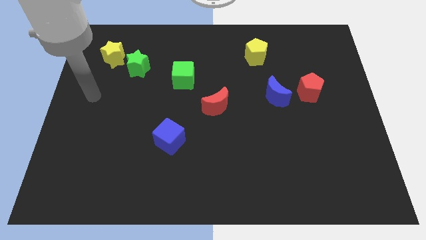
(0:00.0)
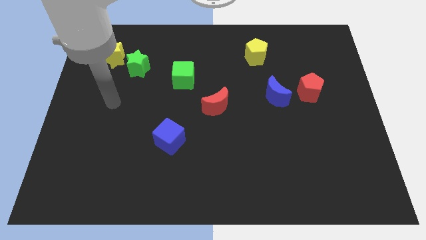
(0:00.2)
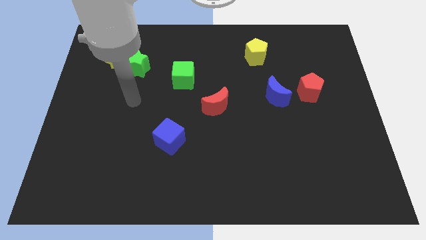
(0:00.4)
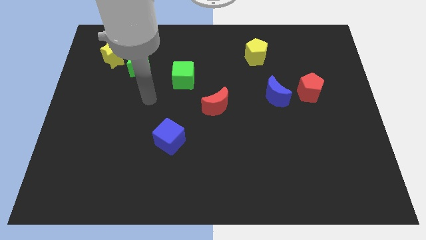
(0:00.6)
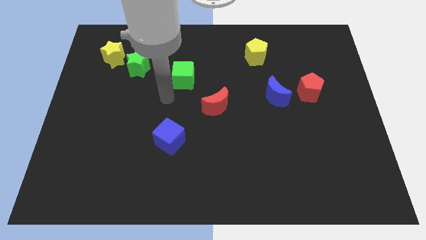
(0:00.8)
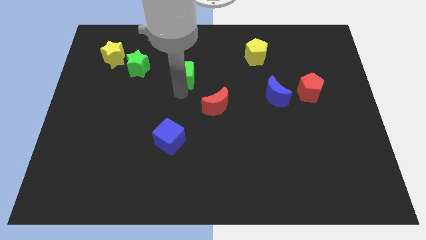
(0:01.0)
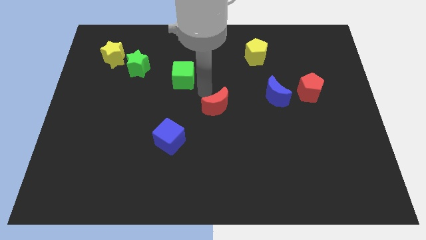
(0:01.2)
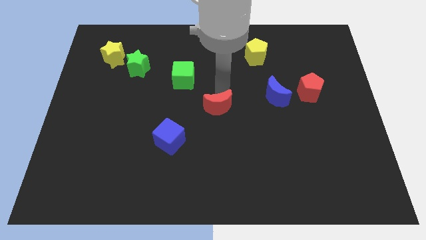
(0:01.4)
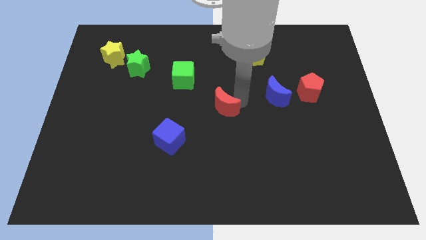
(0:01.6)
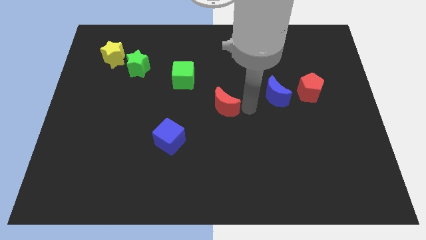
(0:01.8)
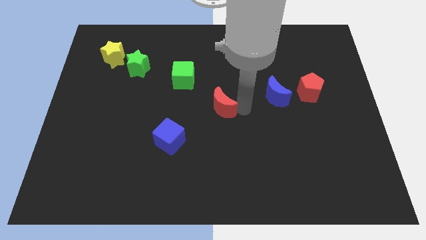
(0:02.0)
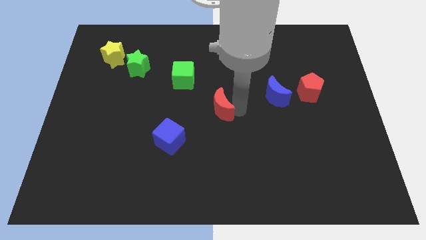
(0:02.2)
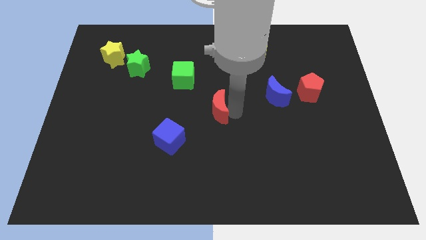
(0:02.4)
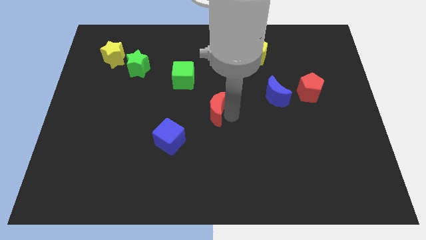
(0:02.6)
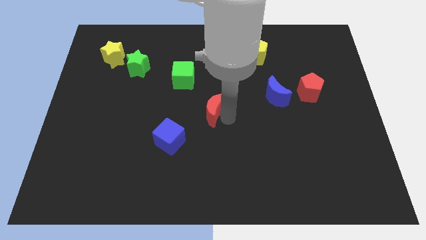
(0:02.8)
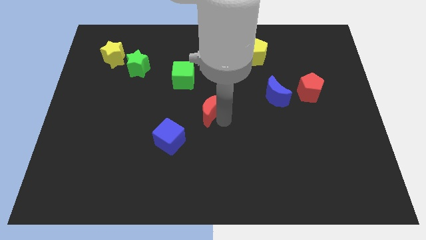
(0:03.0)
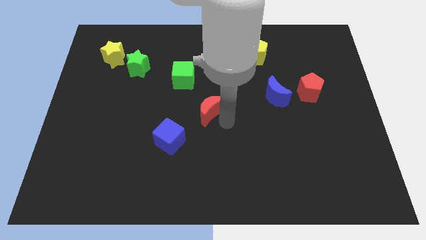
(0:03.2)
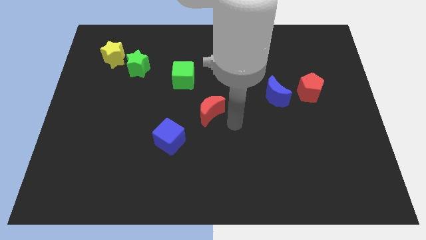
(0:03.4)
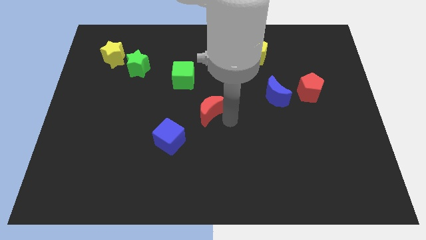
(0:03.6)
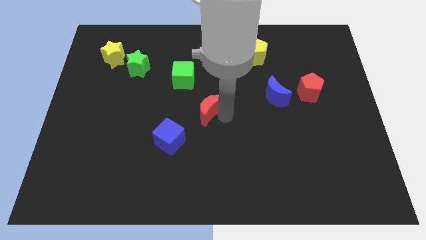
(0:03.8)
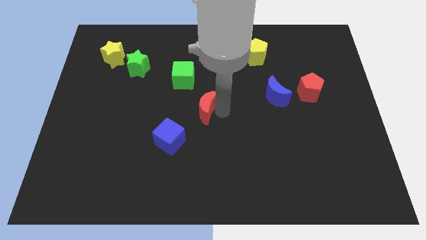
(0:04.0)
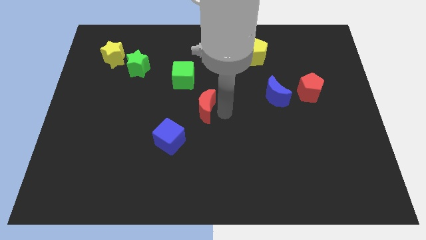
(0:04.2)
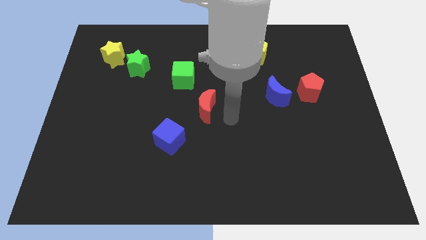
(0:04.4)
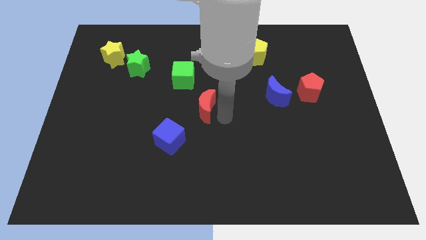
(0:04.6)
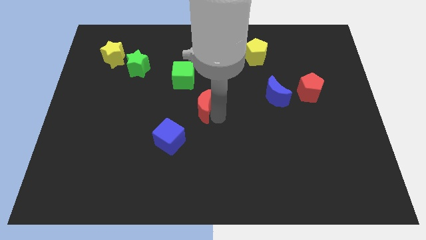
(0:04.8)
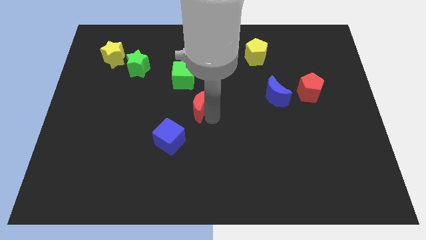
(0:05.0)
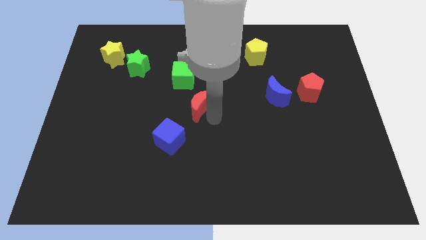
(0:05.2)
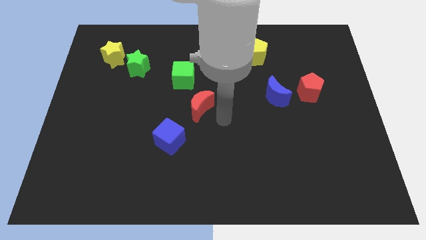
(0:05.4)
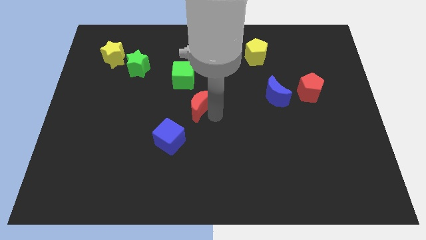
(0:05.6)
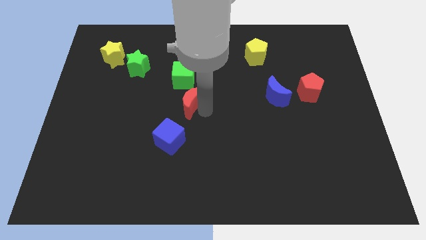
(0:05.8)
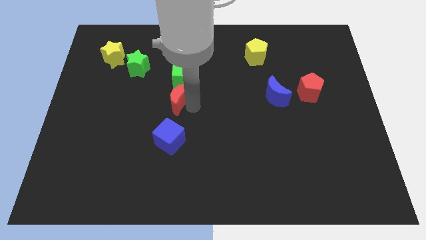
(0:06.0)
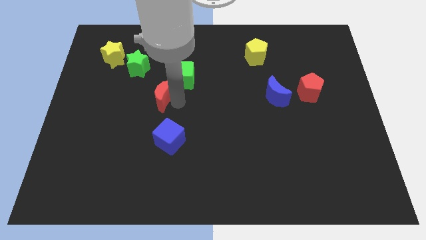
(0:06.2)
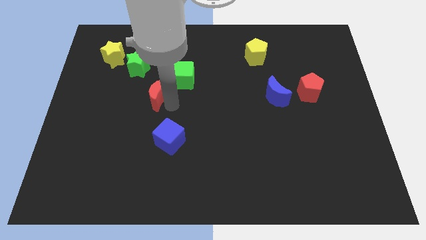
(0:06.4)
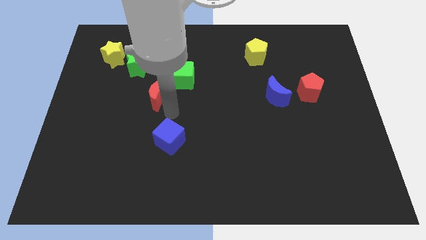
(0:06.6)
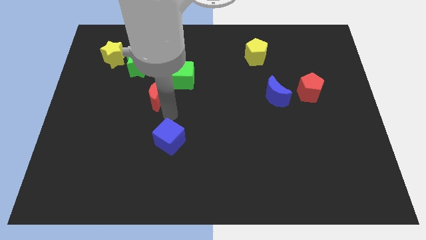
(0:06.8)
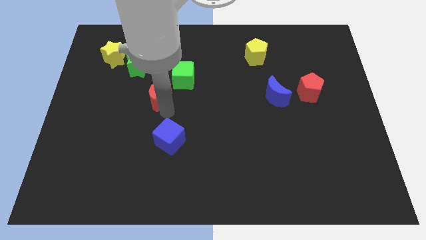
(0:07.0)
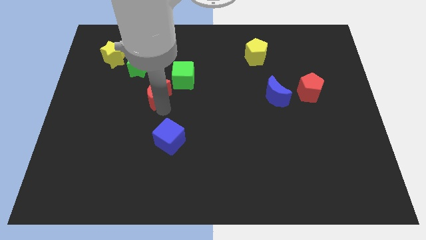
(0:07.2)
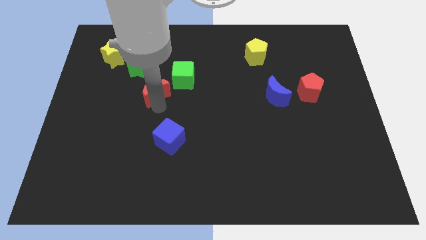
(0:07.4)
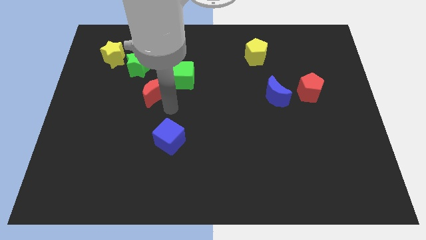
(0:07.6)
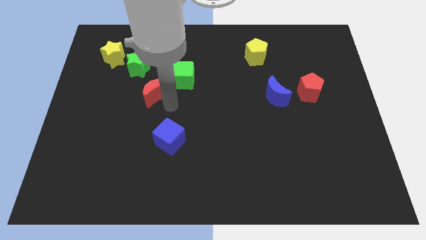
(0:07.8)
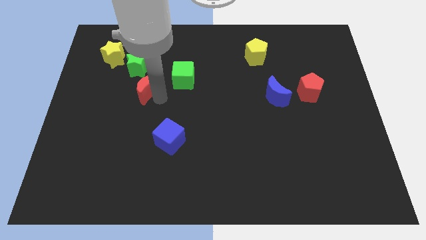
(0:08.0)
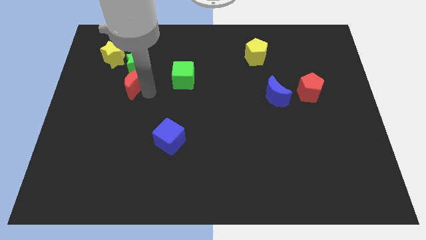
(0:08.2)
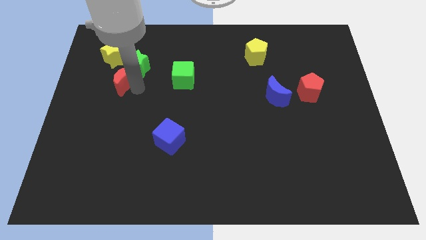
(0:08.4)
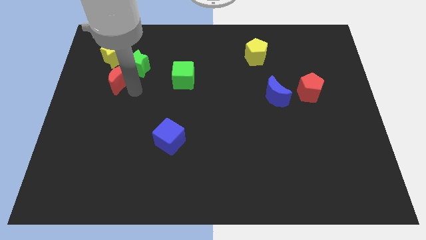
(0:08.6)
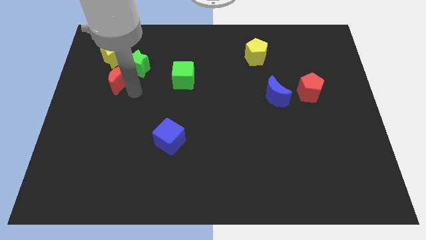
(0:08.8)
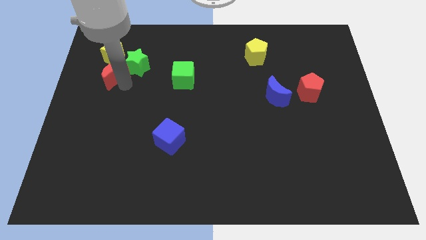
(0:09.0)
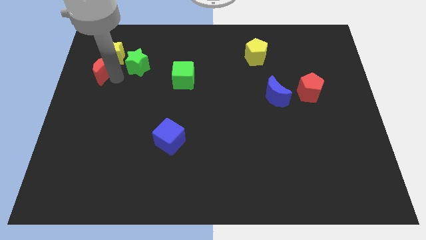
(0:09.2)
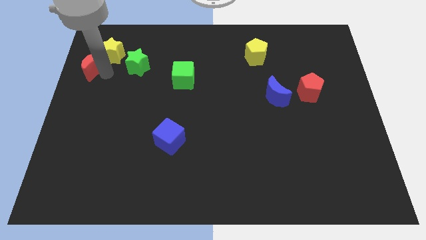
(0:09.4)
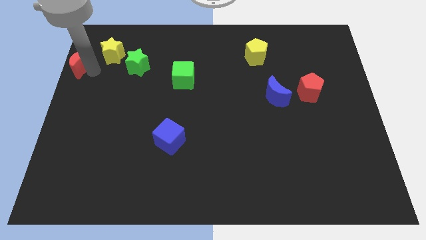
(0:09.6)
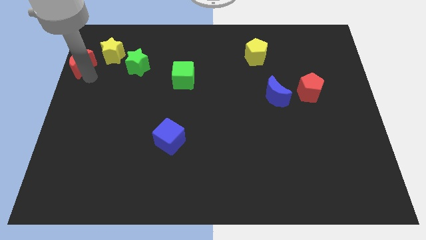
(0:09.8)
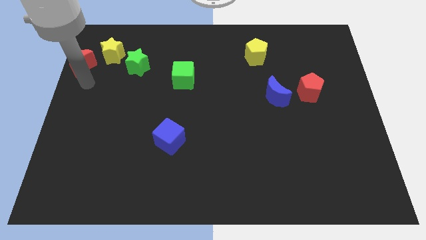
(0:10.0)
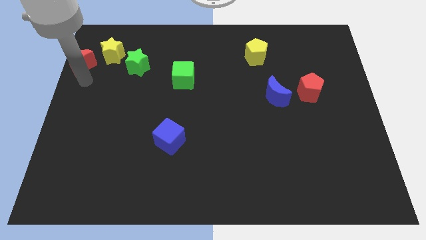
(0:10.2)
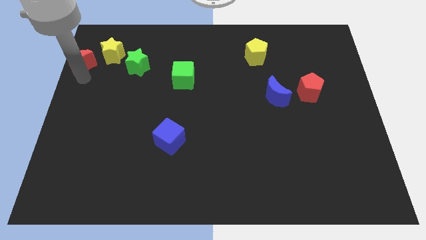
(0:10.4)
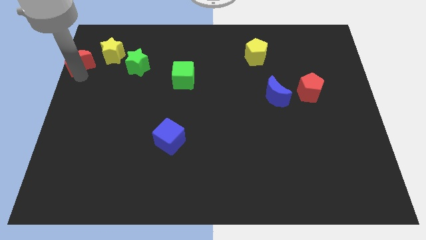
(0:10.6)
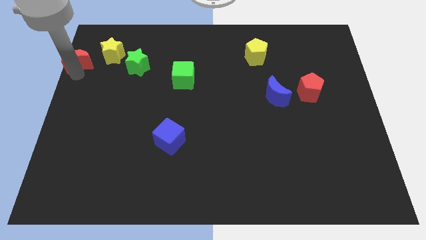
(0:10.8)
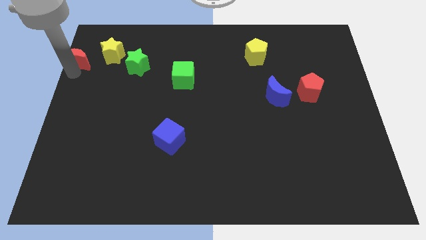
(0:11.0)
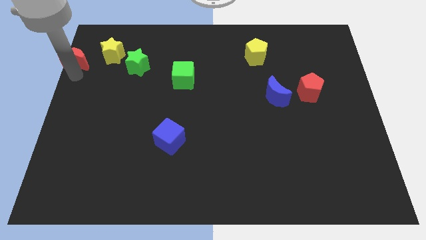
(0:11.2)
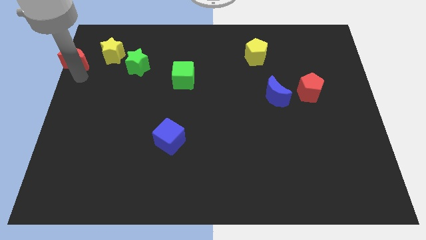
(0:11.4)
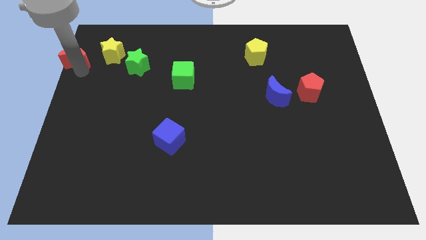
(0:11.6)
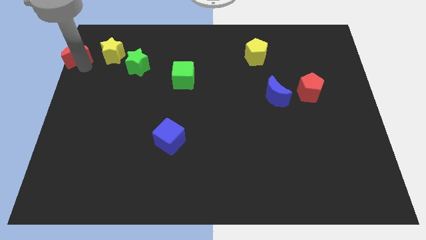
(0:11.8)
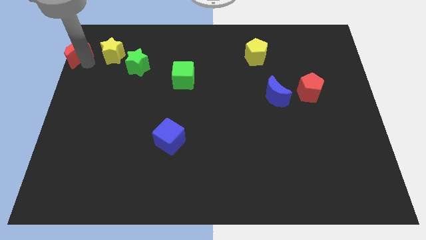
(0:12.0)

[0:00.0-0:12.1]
put the red moon to the top left corner
